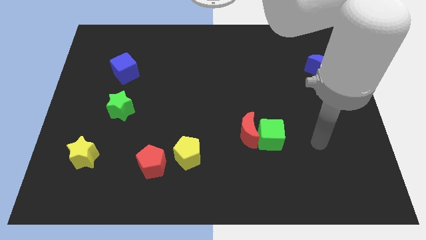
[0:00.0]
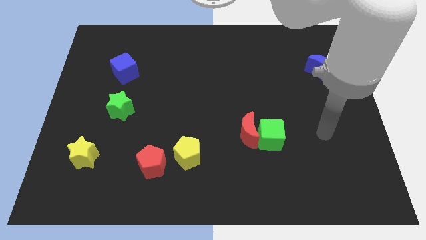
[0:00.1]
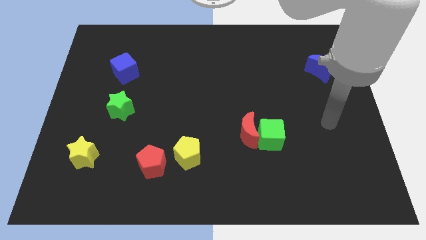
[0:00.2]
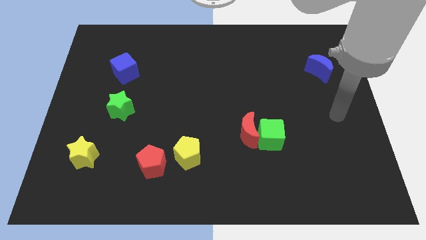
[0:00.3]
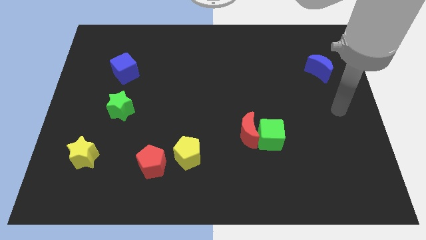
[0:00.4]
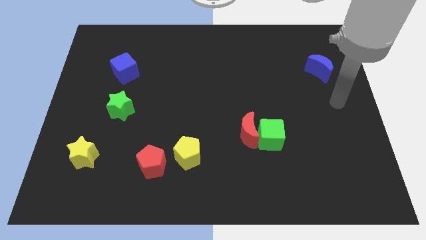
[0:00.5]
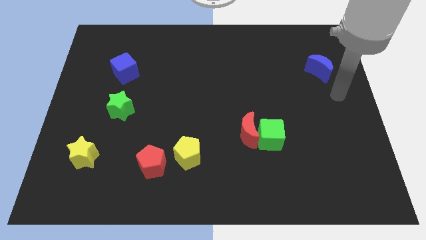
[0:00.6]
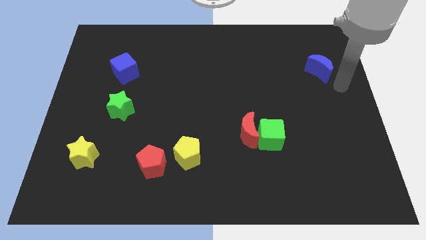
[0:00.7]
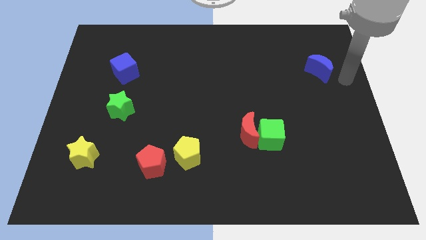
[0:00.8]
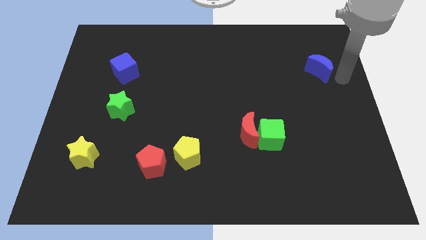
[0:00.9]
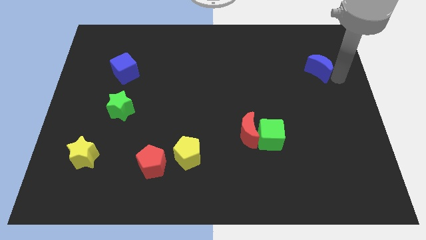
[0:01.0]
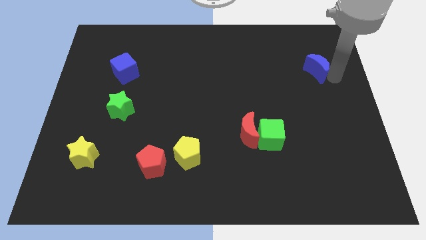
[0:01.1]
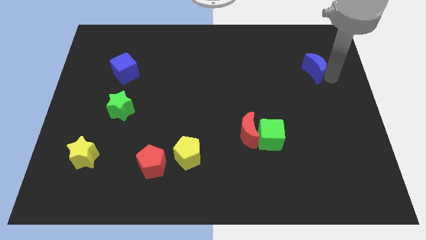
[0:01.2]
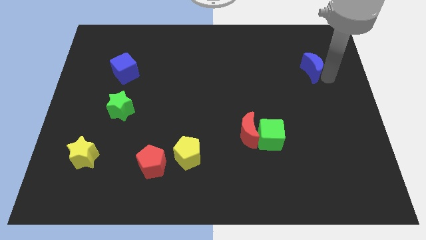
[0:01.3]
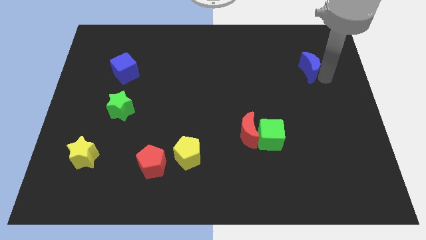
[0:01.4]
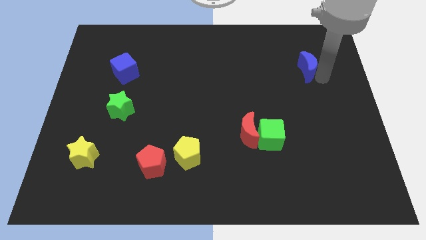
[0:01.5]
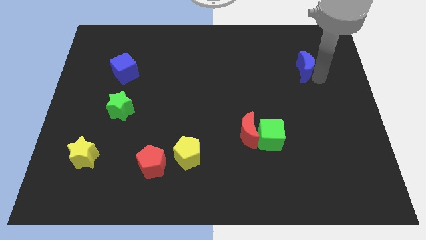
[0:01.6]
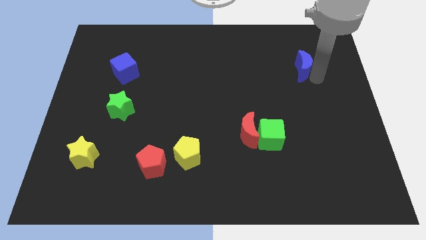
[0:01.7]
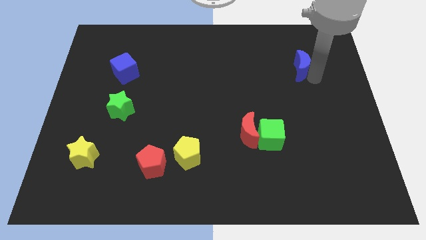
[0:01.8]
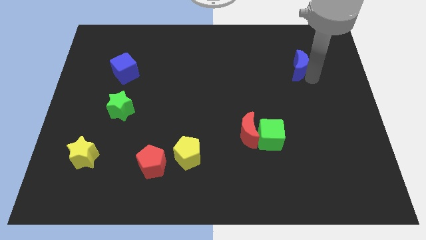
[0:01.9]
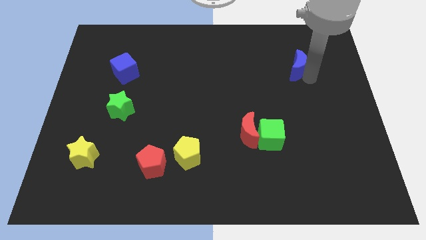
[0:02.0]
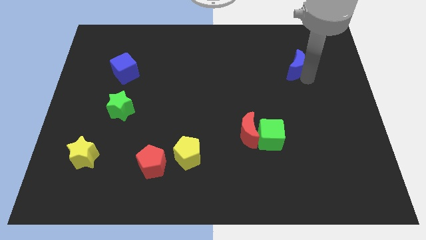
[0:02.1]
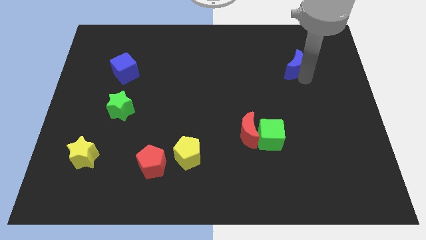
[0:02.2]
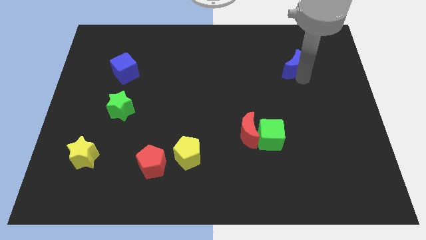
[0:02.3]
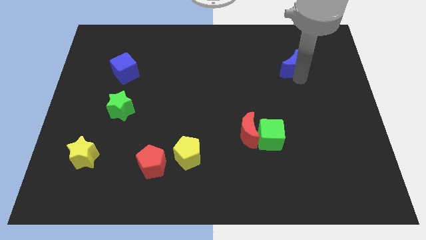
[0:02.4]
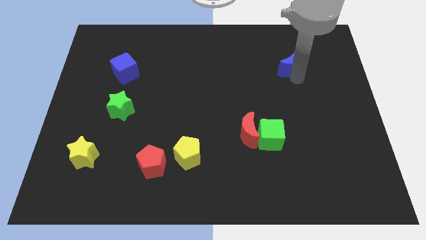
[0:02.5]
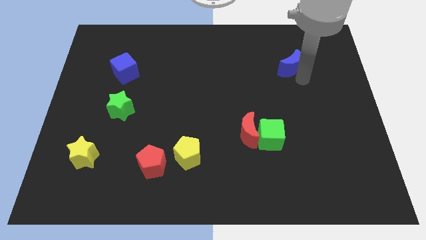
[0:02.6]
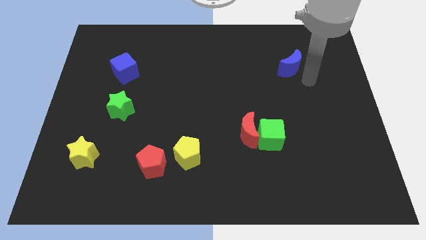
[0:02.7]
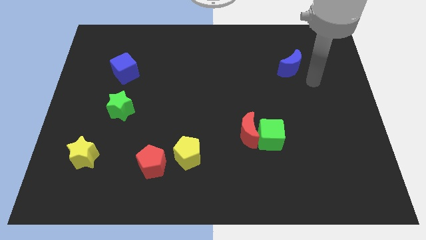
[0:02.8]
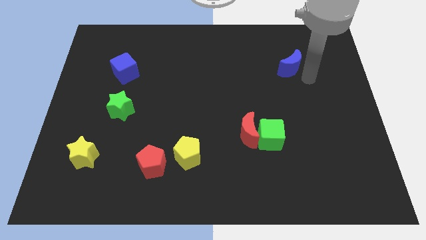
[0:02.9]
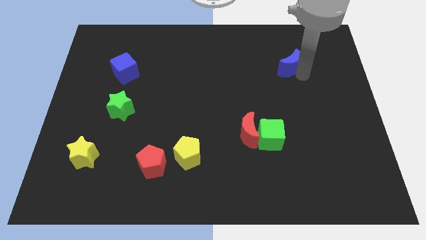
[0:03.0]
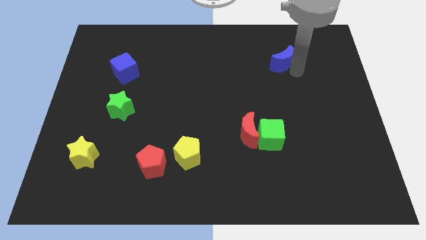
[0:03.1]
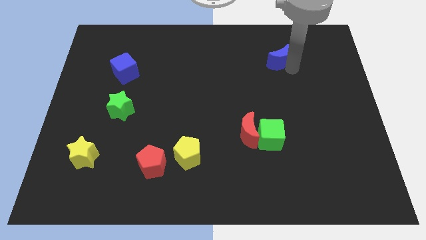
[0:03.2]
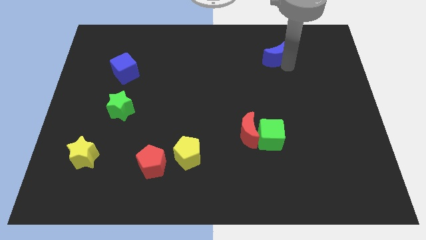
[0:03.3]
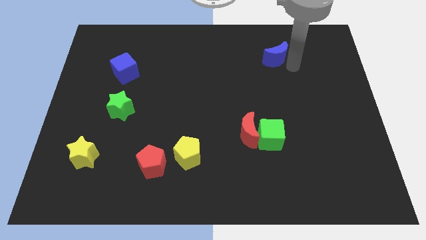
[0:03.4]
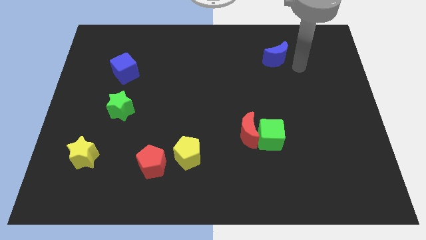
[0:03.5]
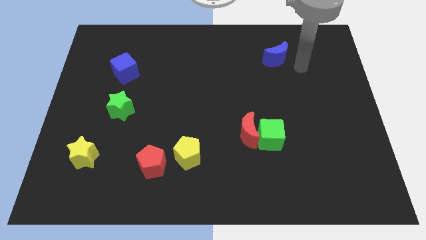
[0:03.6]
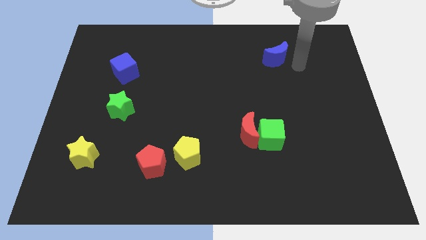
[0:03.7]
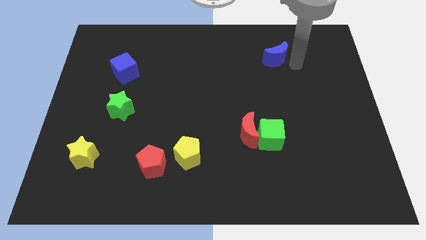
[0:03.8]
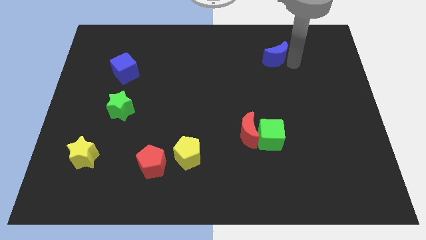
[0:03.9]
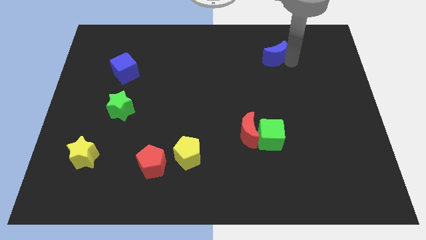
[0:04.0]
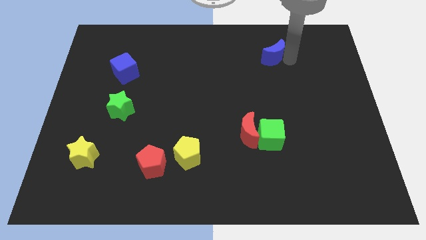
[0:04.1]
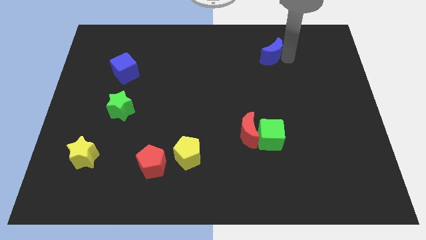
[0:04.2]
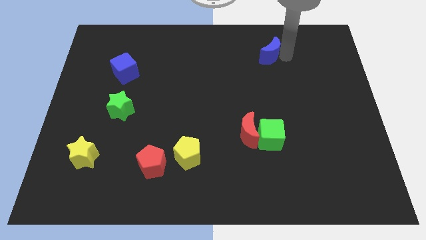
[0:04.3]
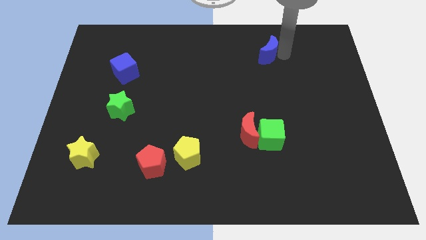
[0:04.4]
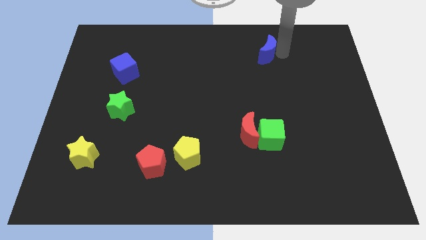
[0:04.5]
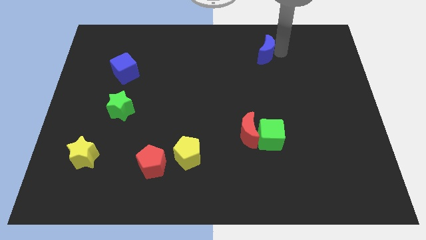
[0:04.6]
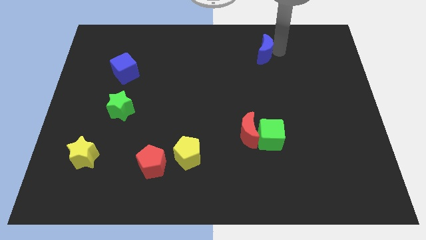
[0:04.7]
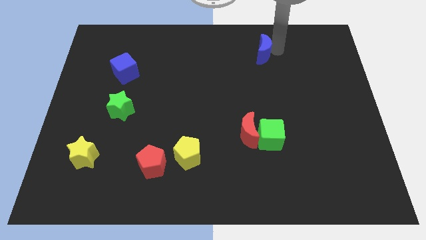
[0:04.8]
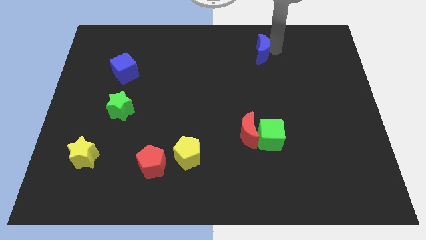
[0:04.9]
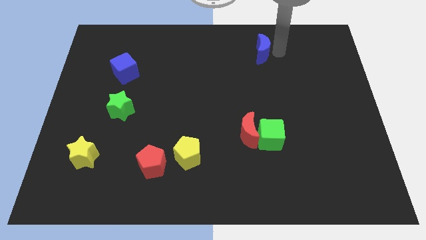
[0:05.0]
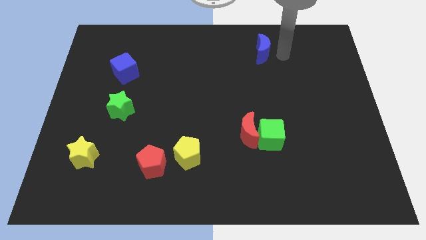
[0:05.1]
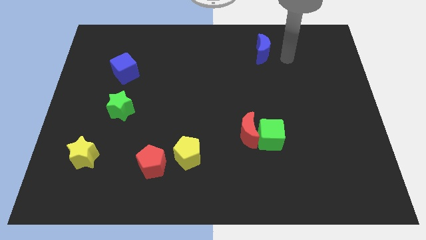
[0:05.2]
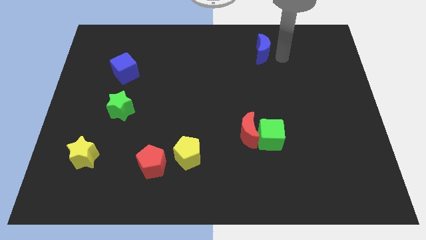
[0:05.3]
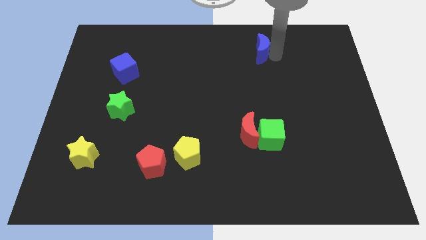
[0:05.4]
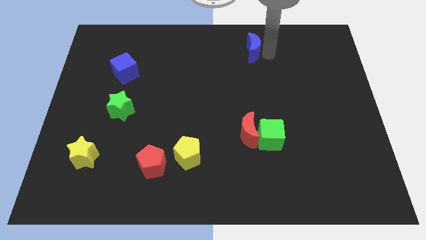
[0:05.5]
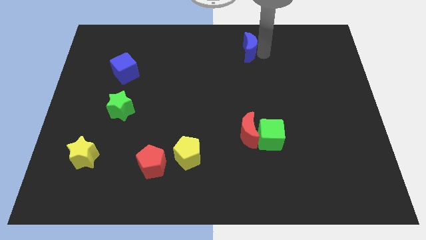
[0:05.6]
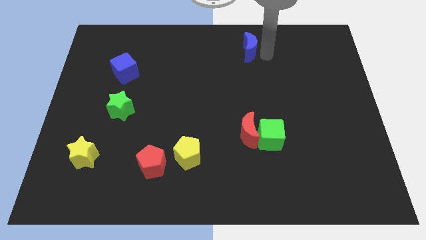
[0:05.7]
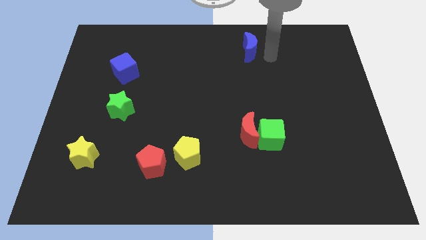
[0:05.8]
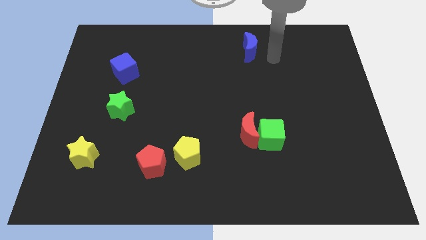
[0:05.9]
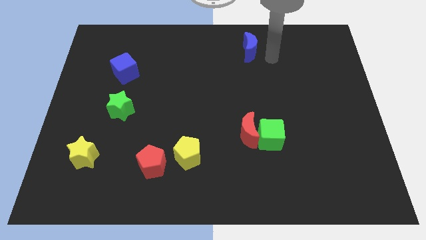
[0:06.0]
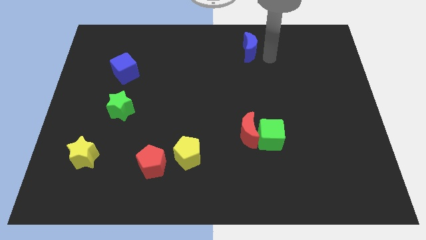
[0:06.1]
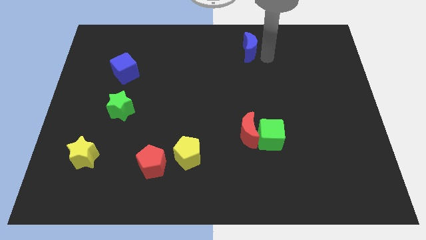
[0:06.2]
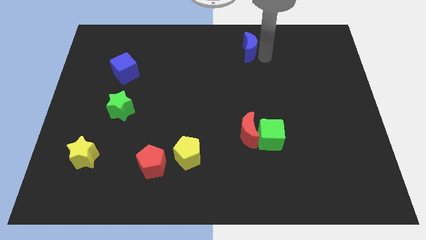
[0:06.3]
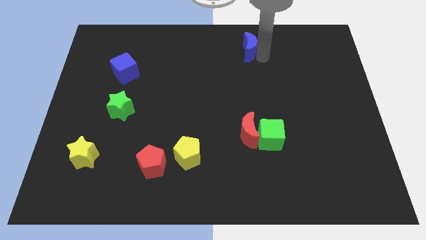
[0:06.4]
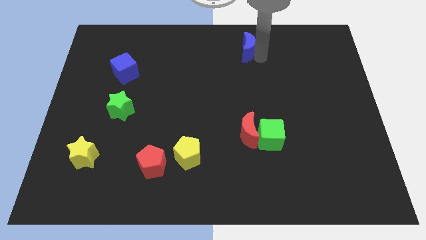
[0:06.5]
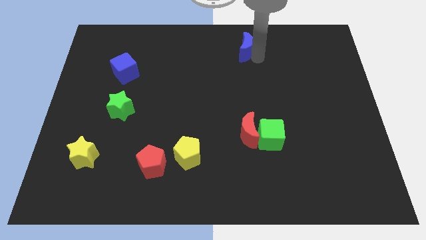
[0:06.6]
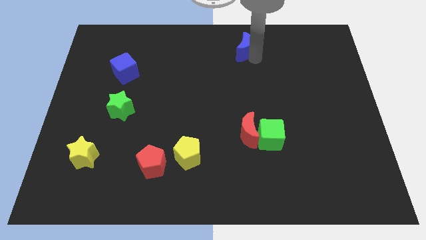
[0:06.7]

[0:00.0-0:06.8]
slide the blue moon to the top
